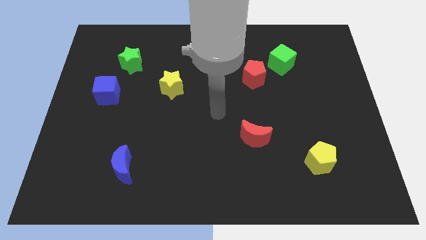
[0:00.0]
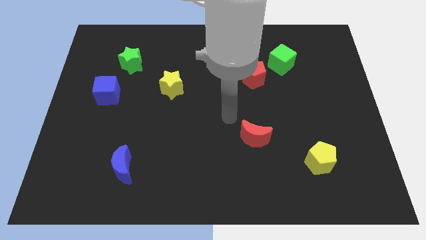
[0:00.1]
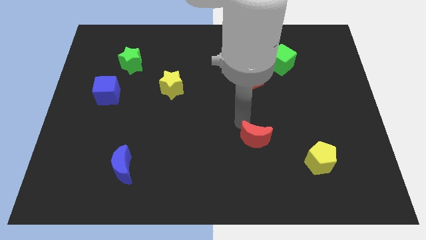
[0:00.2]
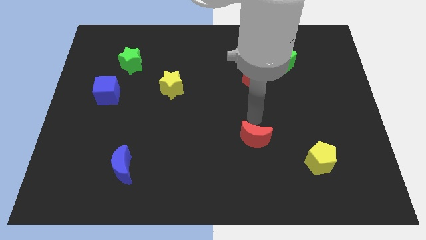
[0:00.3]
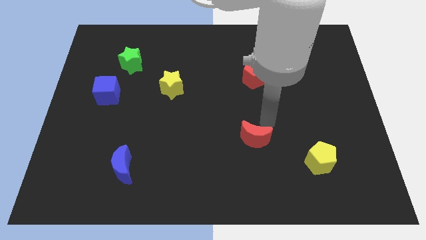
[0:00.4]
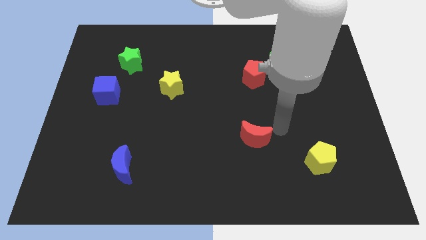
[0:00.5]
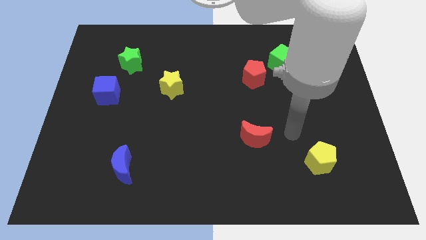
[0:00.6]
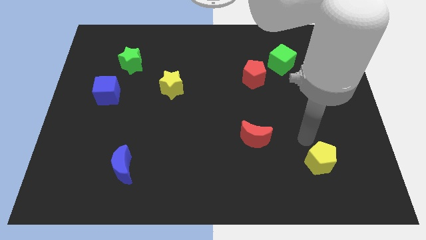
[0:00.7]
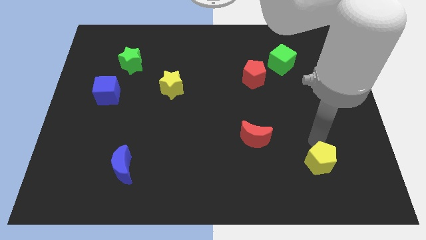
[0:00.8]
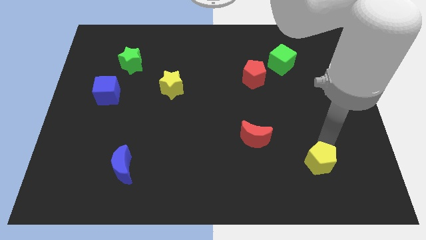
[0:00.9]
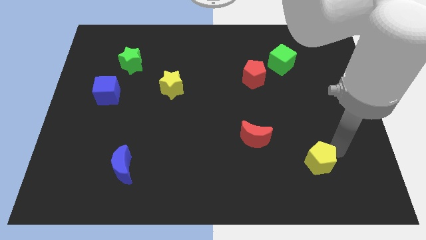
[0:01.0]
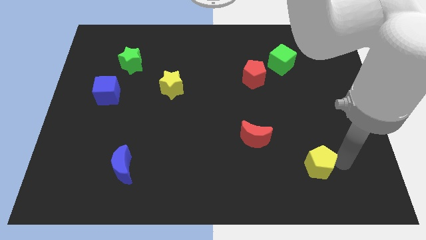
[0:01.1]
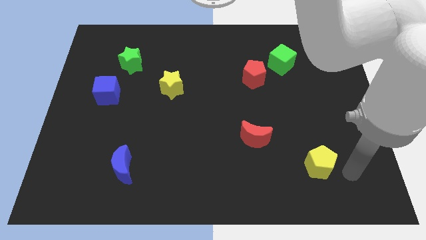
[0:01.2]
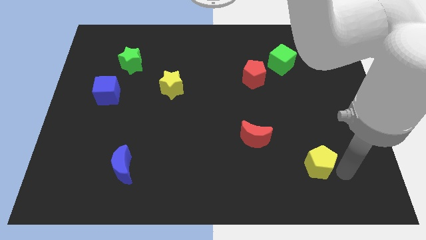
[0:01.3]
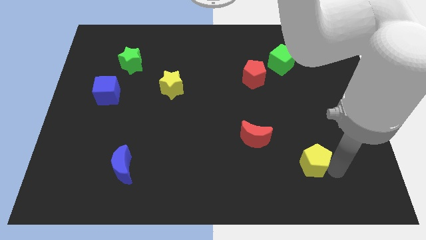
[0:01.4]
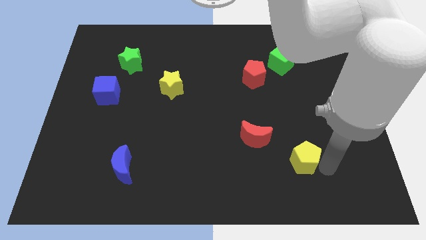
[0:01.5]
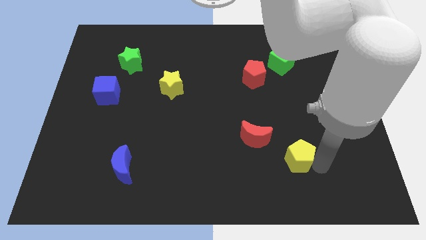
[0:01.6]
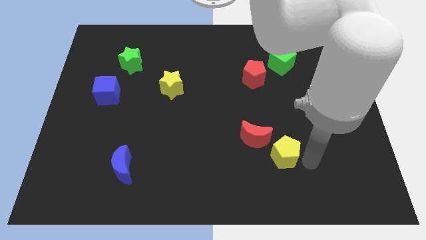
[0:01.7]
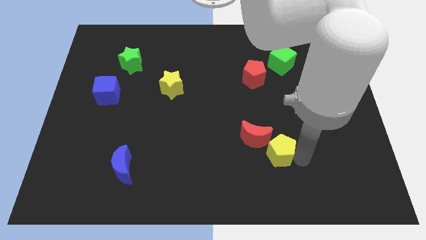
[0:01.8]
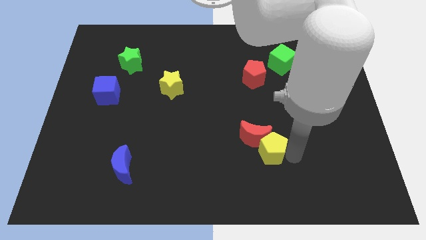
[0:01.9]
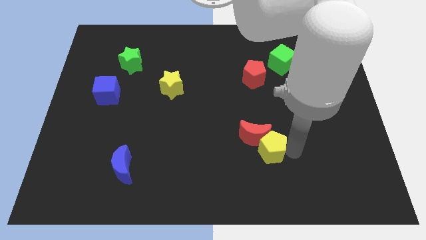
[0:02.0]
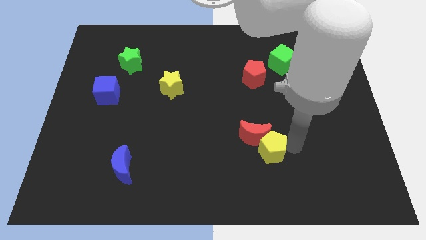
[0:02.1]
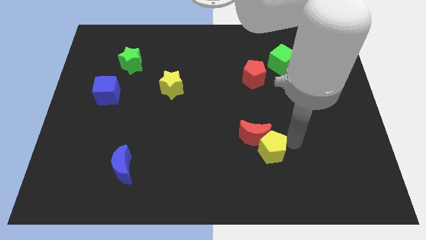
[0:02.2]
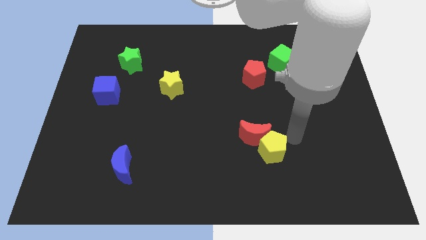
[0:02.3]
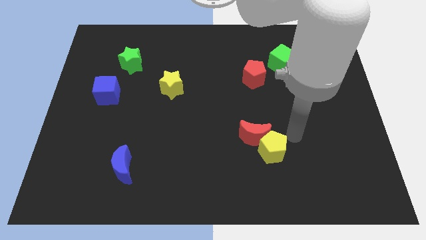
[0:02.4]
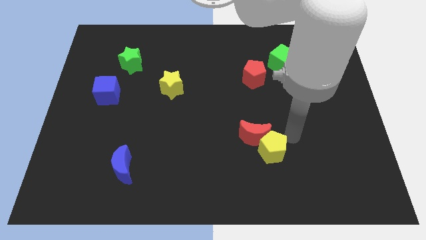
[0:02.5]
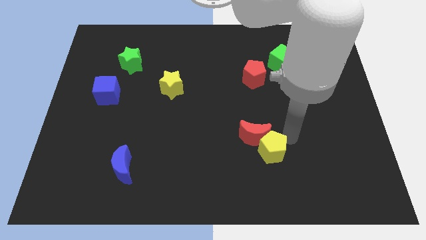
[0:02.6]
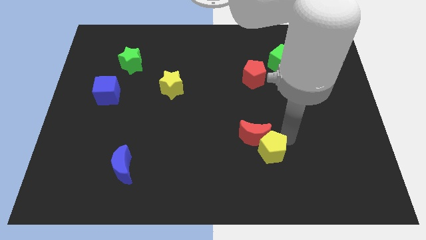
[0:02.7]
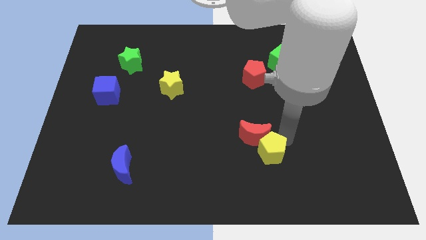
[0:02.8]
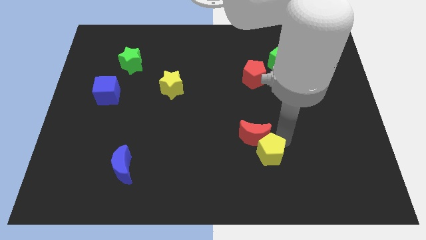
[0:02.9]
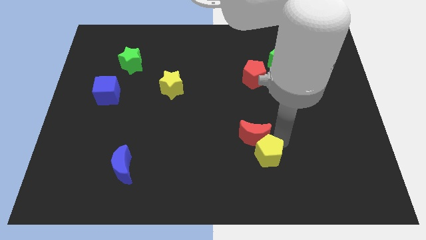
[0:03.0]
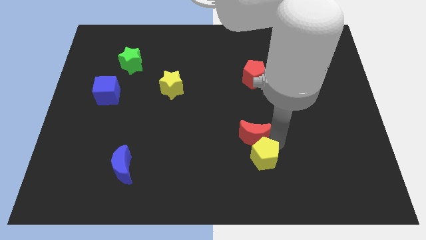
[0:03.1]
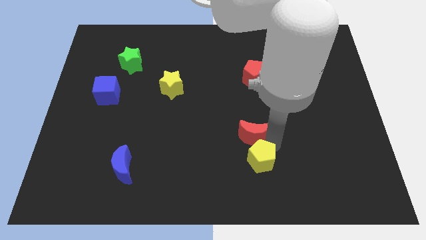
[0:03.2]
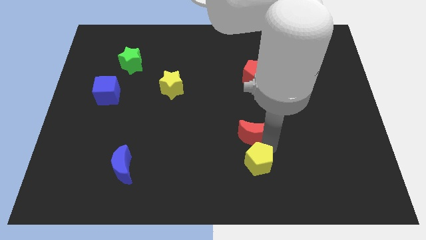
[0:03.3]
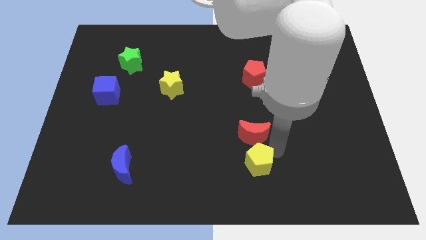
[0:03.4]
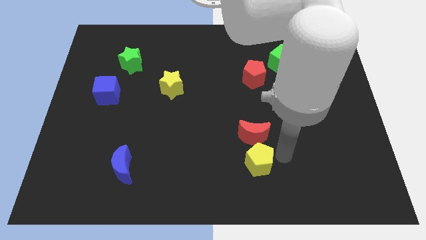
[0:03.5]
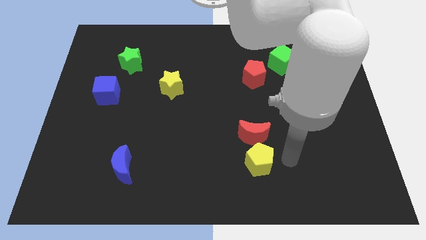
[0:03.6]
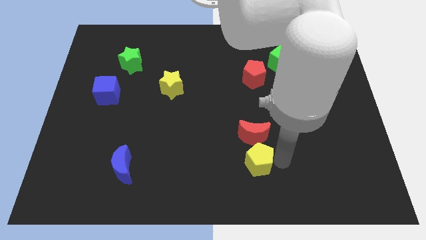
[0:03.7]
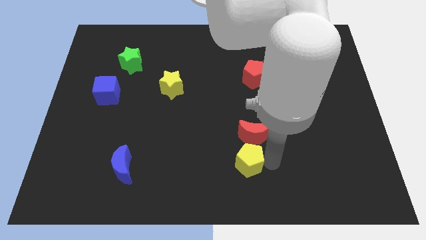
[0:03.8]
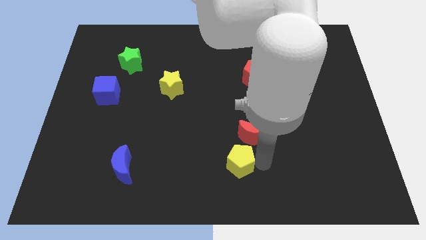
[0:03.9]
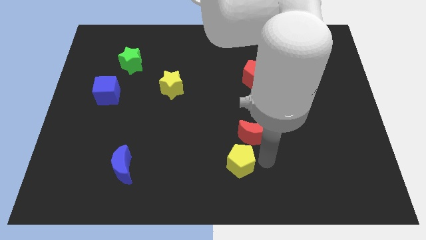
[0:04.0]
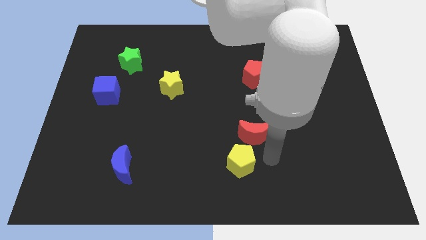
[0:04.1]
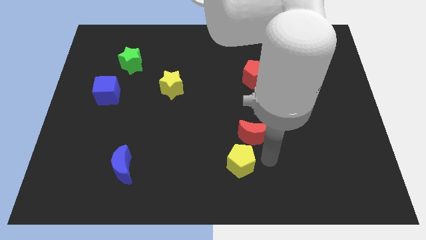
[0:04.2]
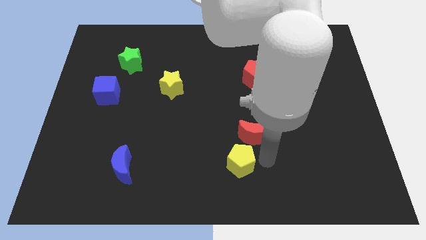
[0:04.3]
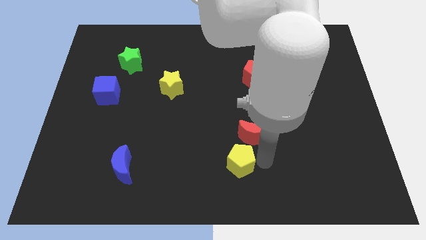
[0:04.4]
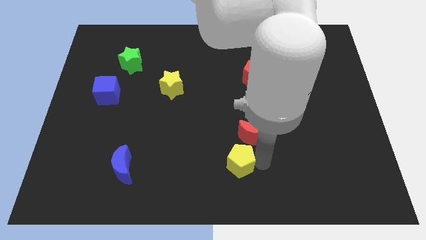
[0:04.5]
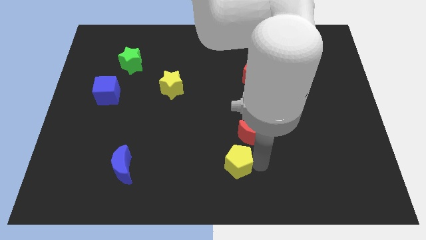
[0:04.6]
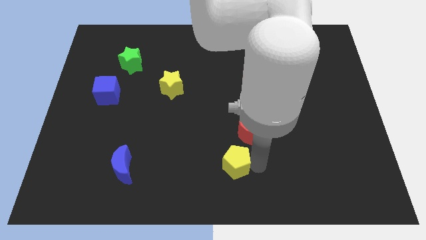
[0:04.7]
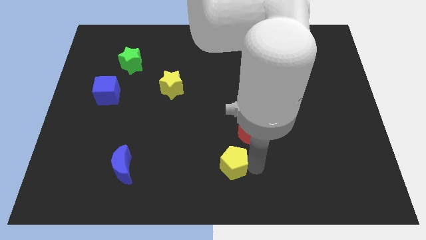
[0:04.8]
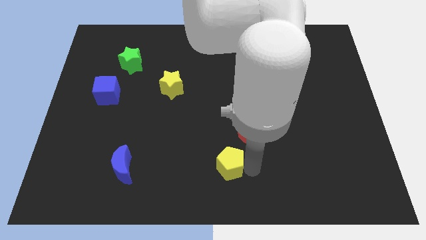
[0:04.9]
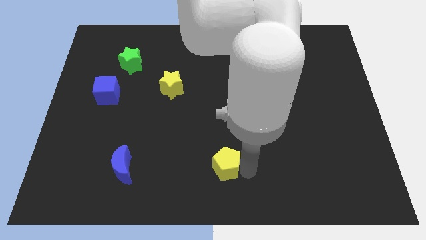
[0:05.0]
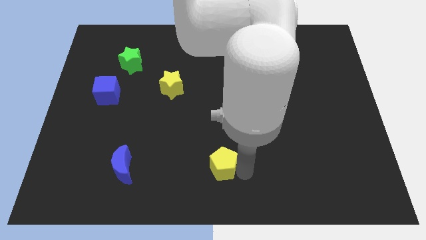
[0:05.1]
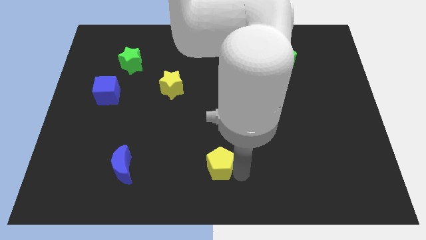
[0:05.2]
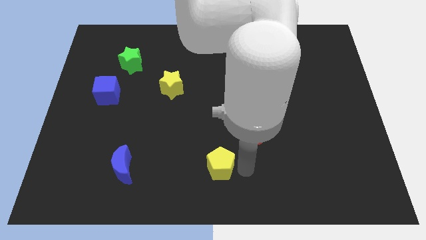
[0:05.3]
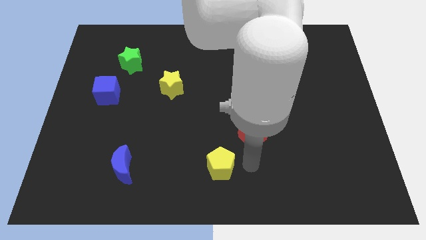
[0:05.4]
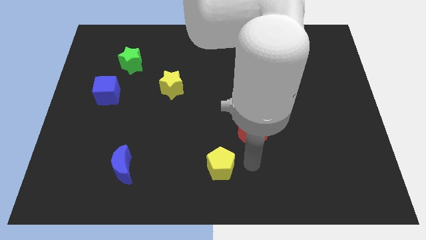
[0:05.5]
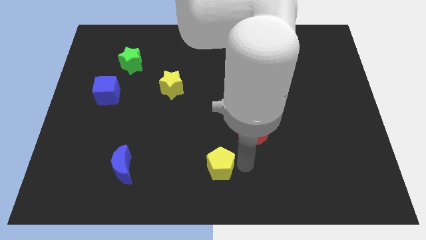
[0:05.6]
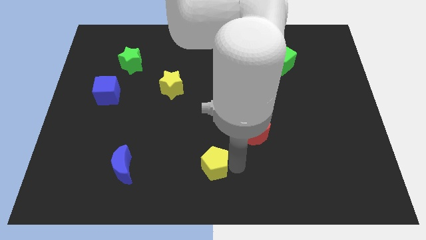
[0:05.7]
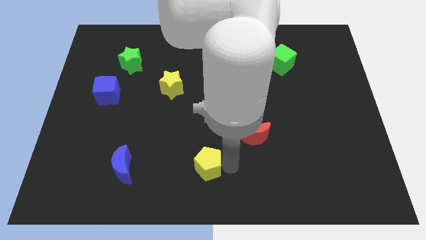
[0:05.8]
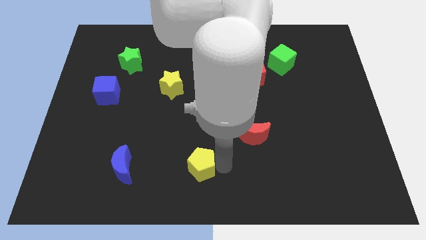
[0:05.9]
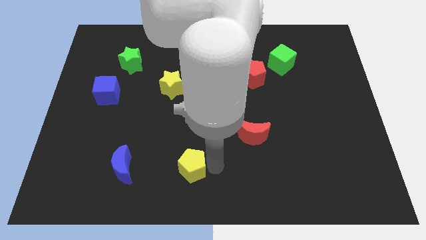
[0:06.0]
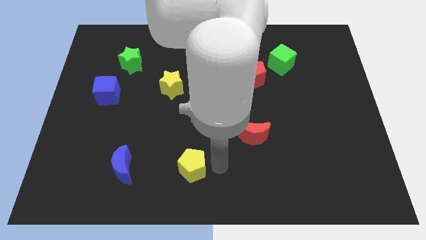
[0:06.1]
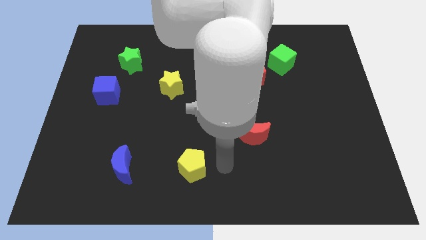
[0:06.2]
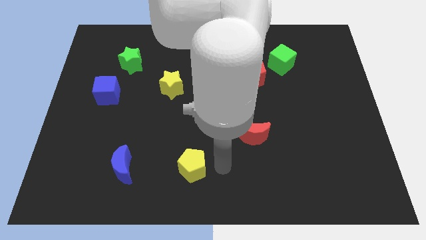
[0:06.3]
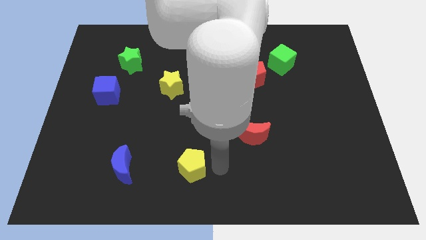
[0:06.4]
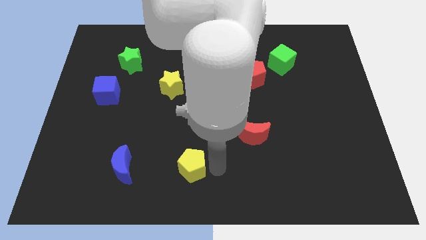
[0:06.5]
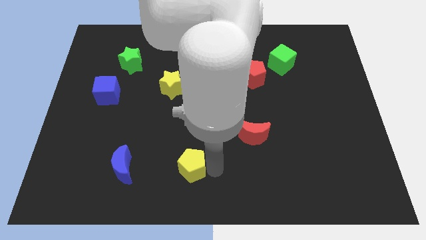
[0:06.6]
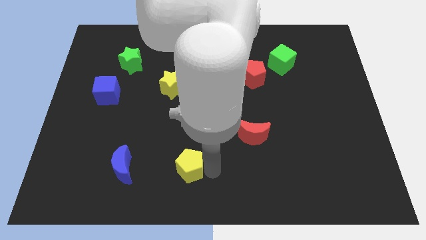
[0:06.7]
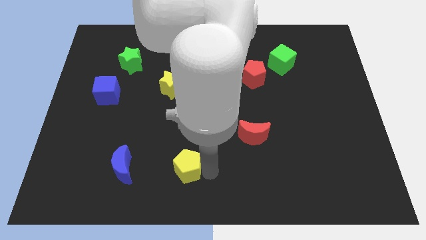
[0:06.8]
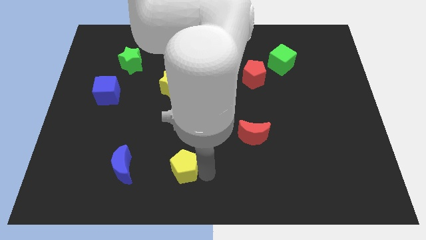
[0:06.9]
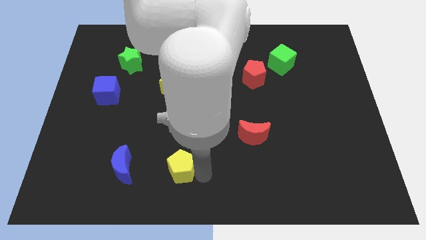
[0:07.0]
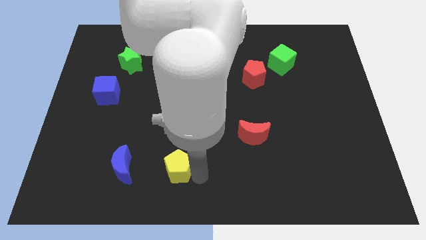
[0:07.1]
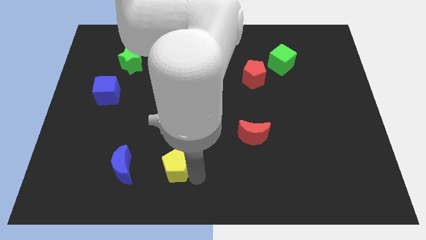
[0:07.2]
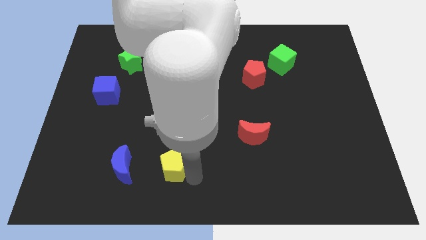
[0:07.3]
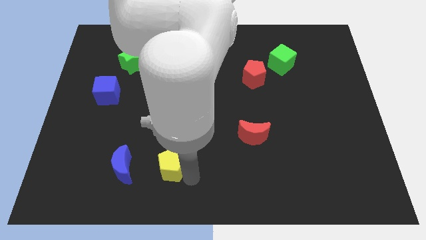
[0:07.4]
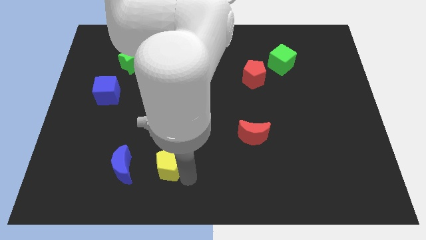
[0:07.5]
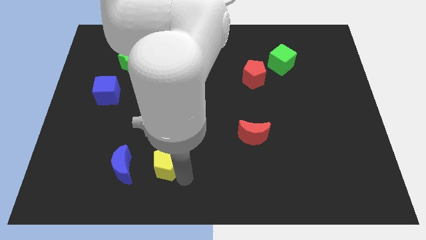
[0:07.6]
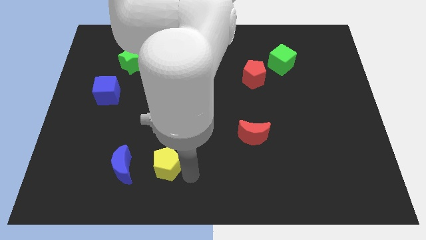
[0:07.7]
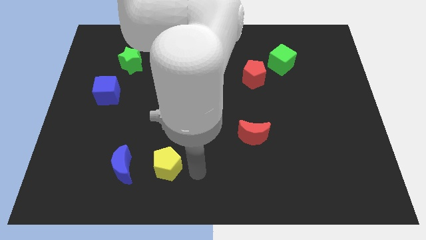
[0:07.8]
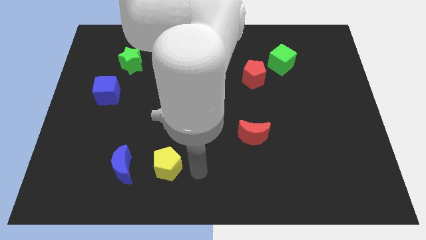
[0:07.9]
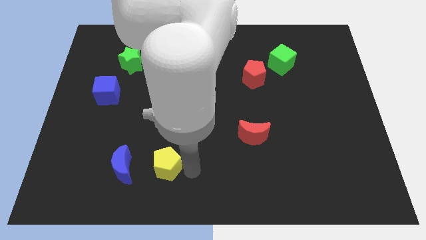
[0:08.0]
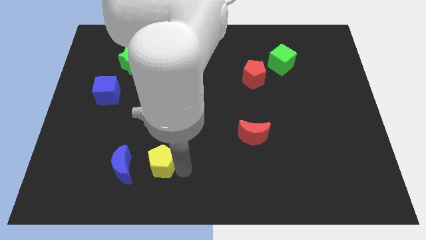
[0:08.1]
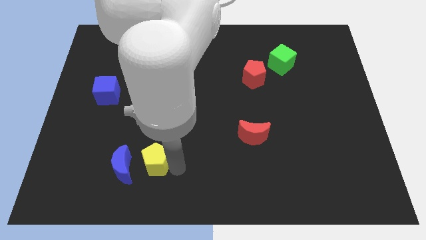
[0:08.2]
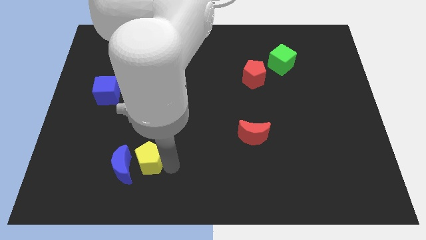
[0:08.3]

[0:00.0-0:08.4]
slide the yellow pentagon next to the blue moon
